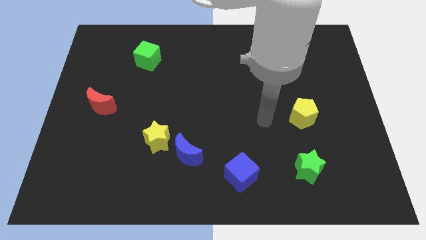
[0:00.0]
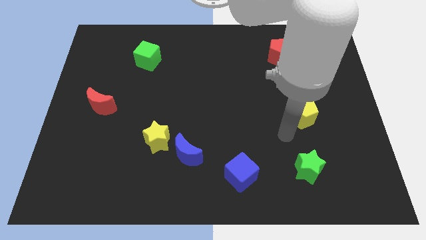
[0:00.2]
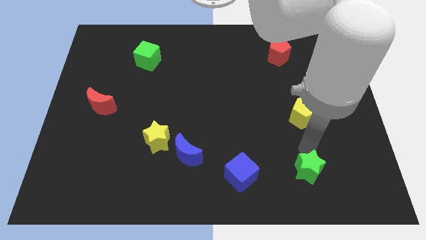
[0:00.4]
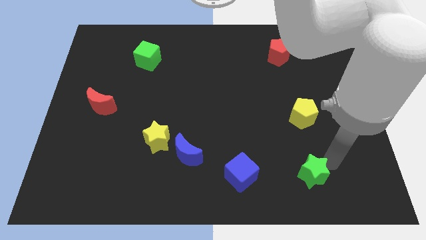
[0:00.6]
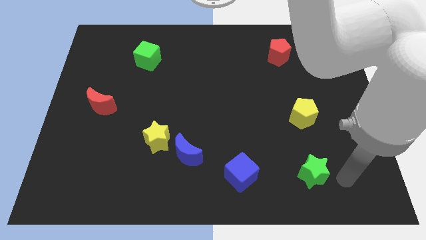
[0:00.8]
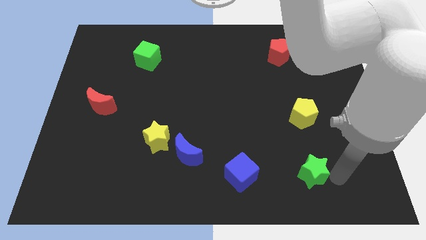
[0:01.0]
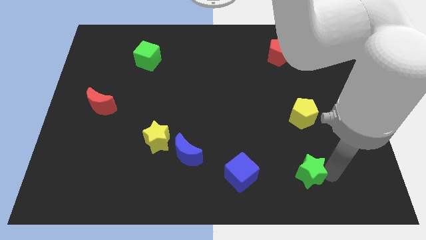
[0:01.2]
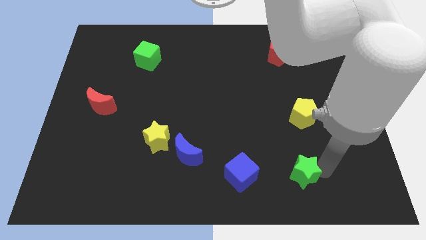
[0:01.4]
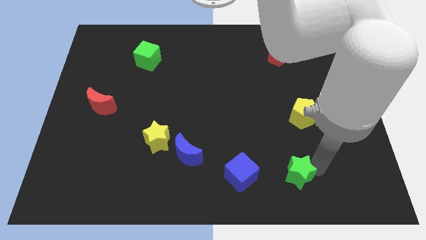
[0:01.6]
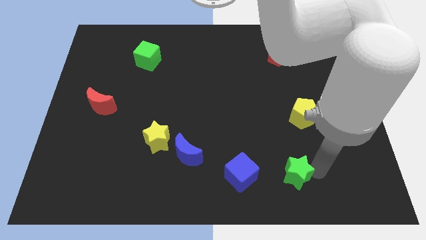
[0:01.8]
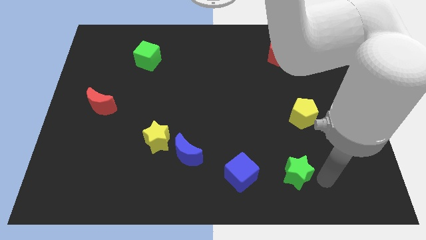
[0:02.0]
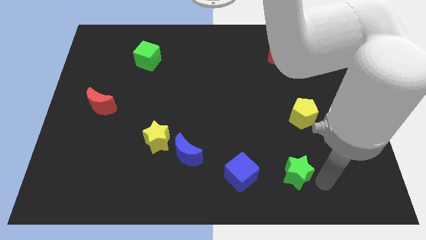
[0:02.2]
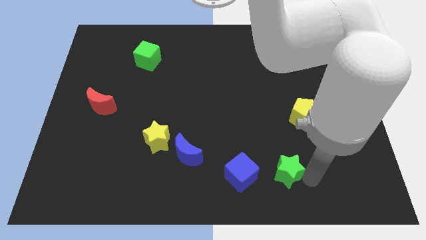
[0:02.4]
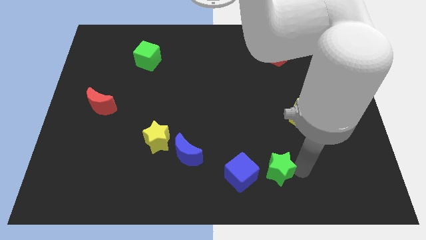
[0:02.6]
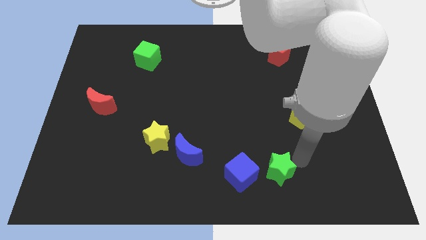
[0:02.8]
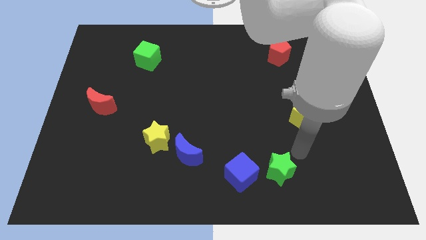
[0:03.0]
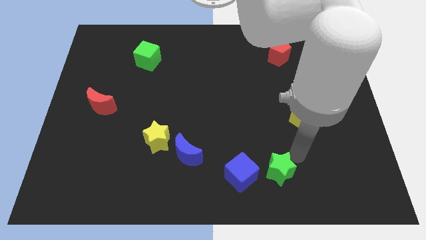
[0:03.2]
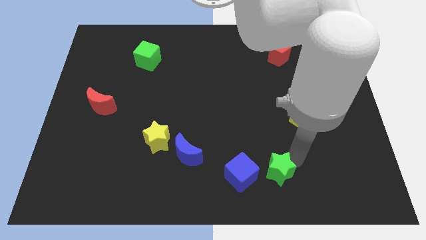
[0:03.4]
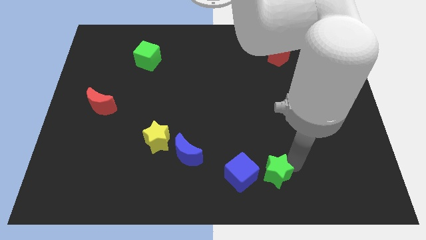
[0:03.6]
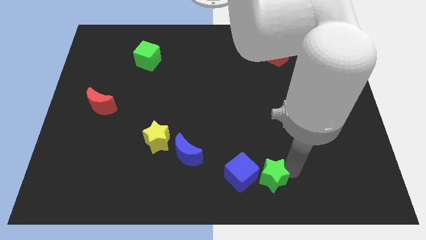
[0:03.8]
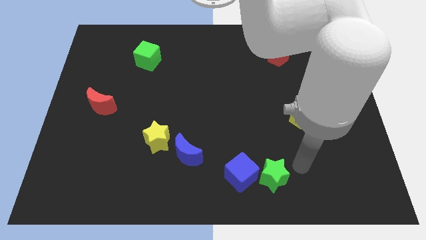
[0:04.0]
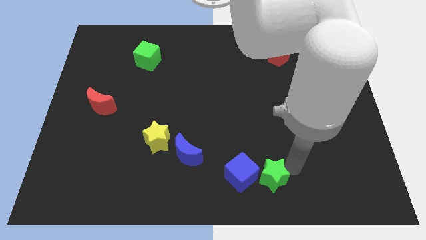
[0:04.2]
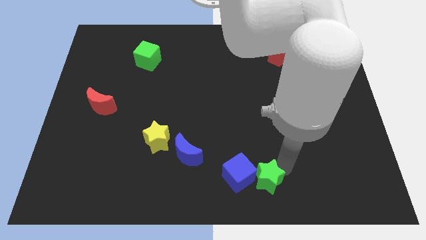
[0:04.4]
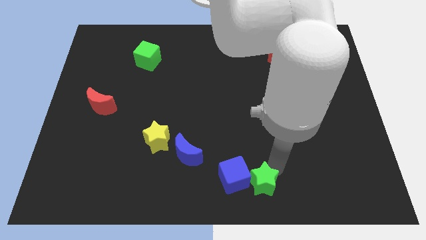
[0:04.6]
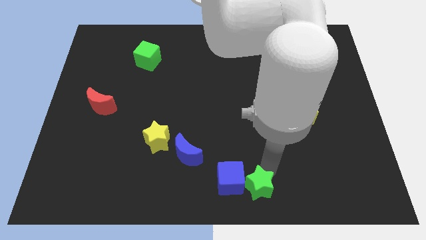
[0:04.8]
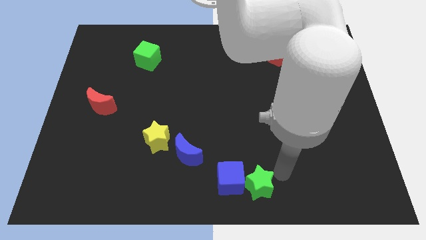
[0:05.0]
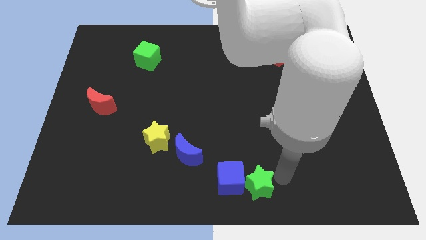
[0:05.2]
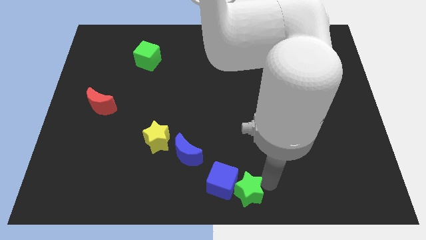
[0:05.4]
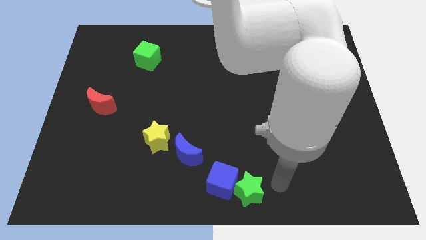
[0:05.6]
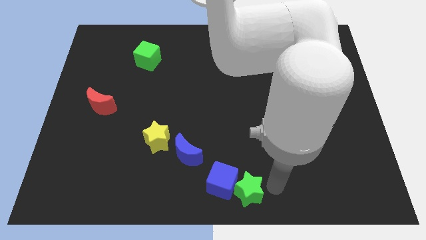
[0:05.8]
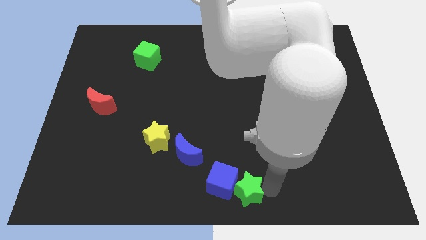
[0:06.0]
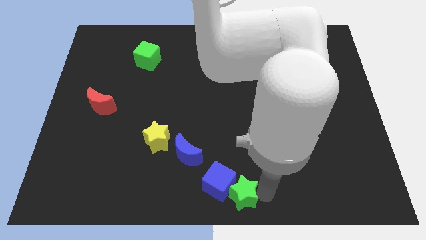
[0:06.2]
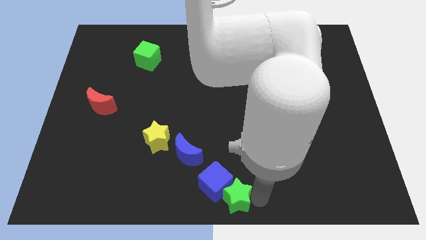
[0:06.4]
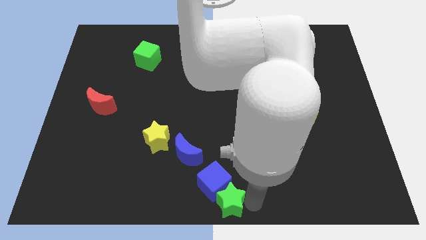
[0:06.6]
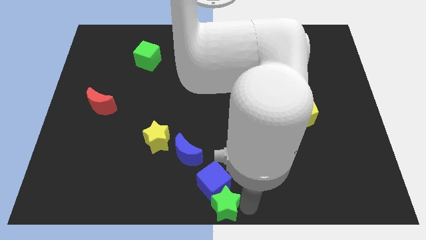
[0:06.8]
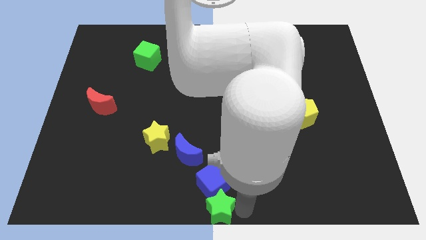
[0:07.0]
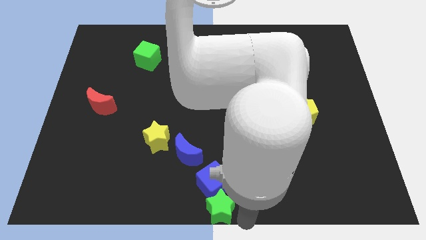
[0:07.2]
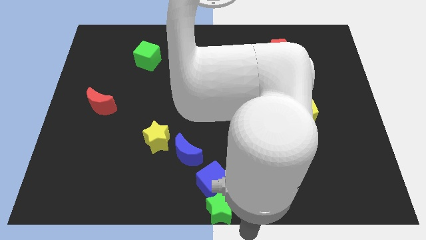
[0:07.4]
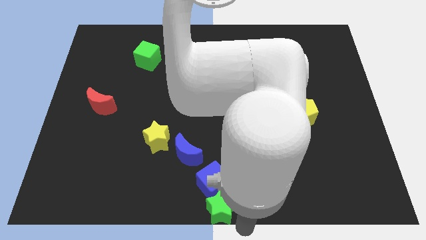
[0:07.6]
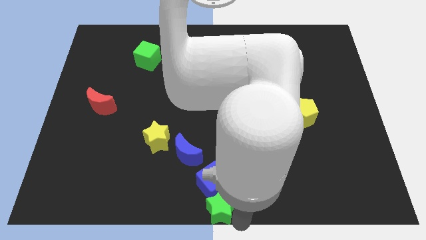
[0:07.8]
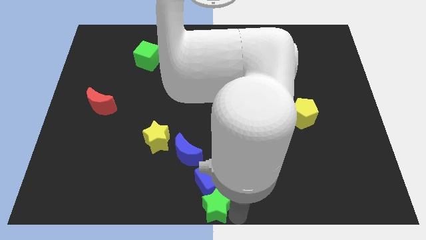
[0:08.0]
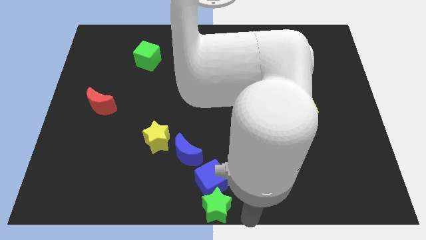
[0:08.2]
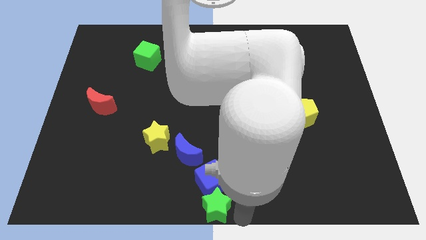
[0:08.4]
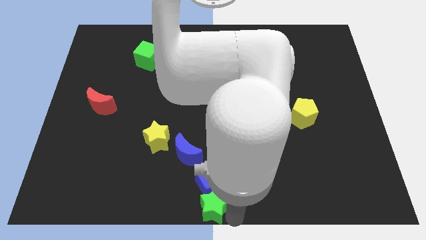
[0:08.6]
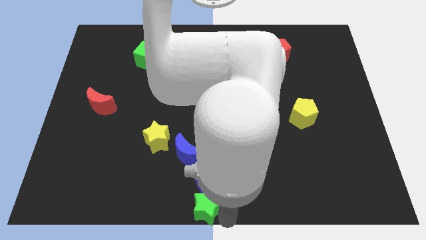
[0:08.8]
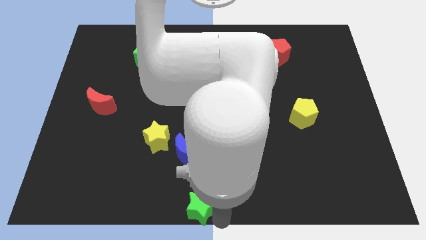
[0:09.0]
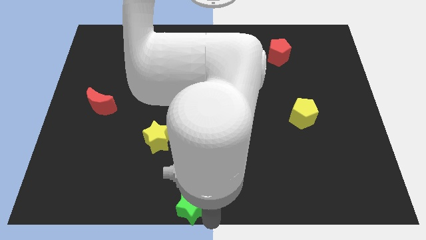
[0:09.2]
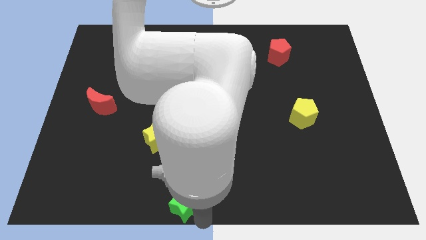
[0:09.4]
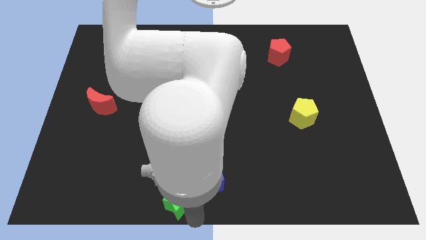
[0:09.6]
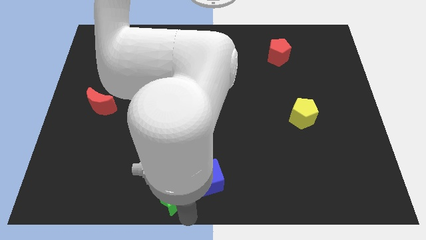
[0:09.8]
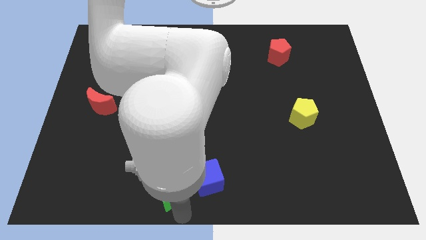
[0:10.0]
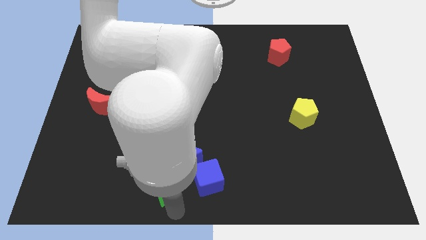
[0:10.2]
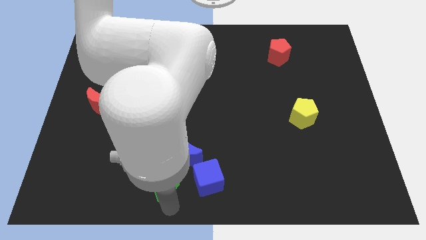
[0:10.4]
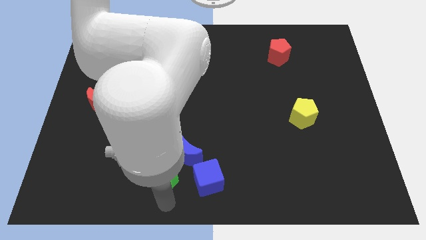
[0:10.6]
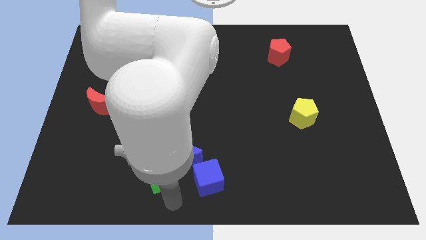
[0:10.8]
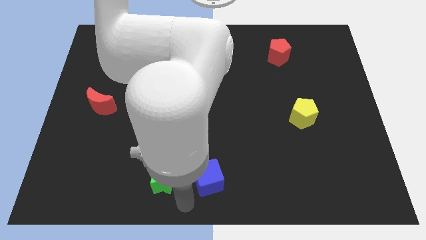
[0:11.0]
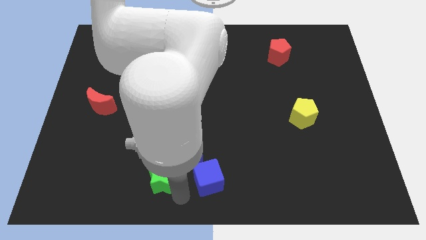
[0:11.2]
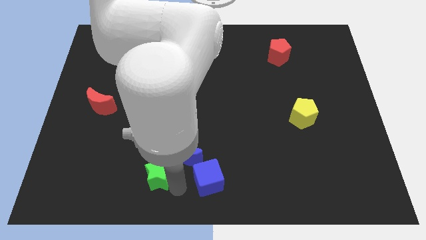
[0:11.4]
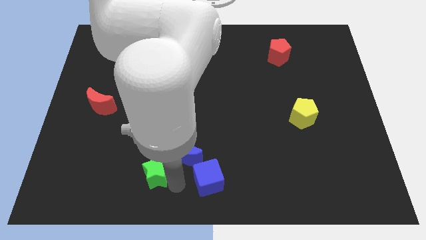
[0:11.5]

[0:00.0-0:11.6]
put the green star just left of the blue moon

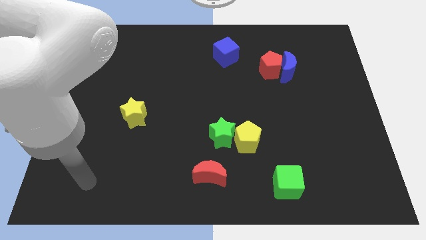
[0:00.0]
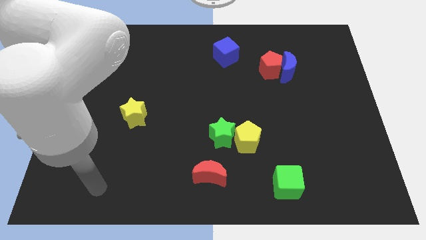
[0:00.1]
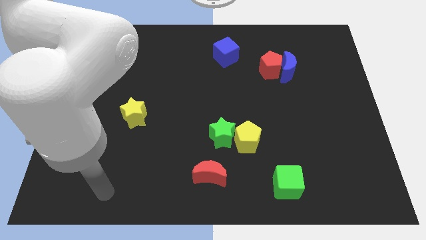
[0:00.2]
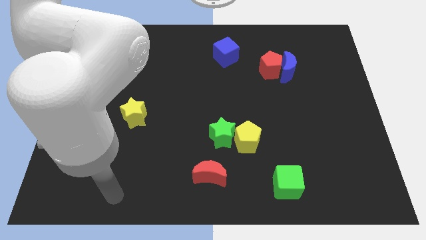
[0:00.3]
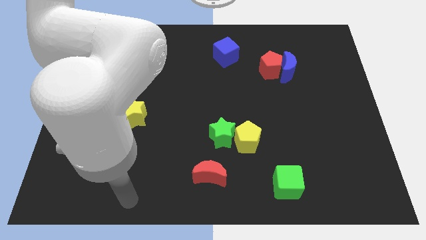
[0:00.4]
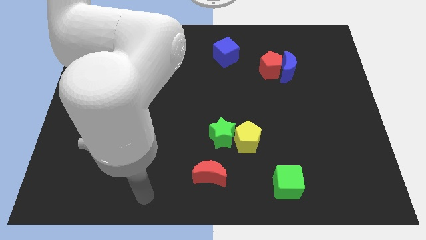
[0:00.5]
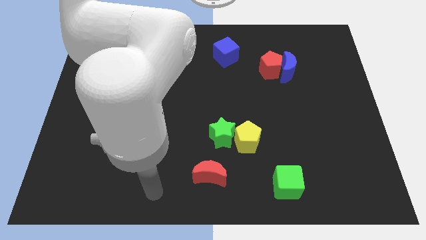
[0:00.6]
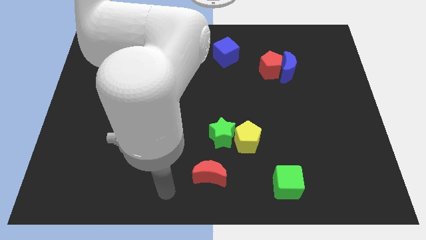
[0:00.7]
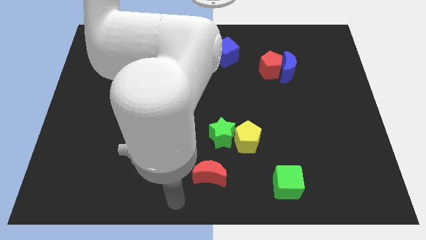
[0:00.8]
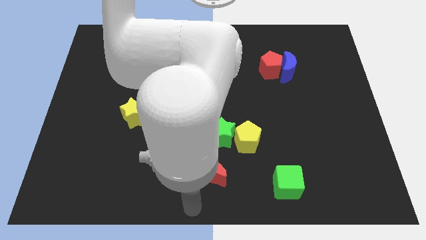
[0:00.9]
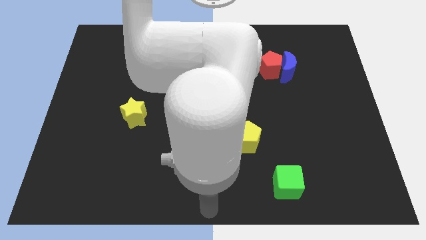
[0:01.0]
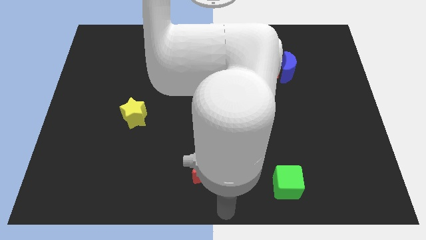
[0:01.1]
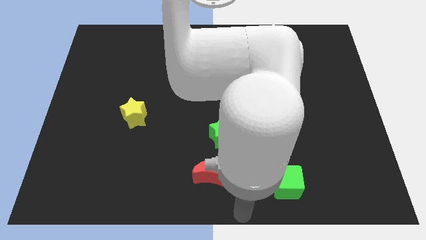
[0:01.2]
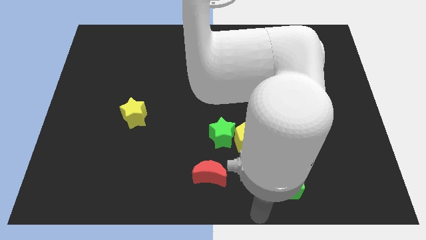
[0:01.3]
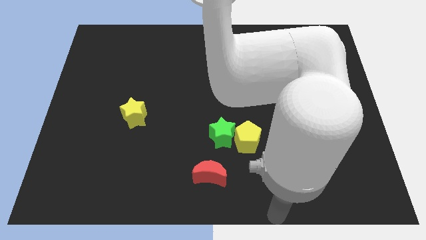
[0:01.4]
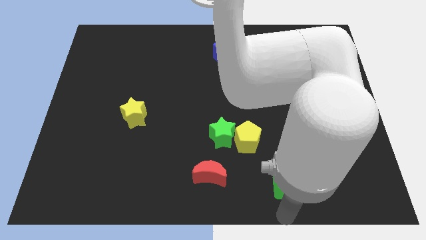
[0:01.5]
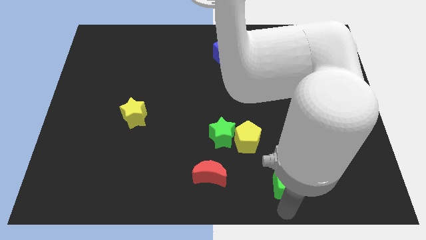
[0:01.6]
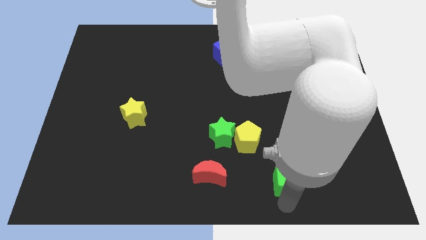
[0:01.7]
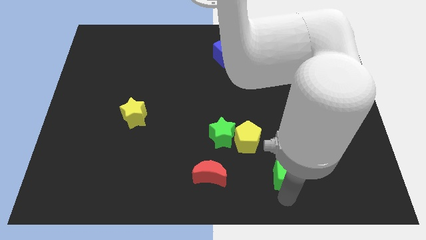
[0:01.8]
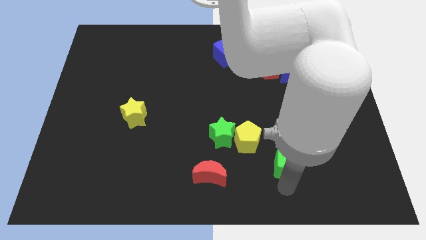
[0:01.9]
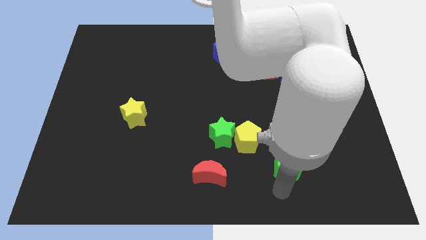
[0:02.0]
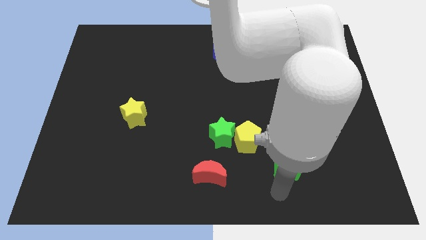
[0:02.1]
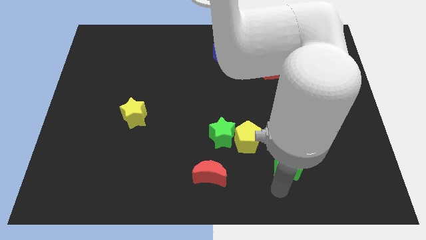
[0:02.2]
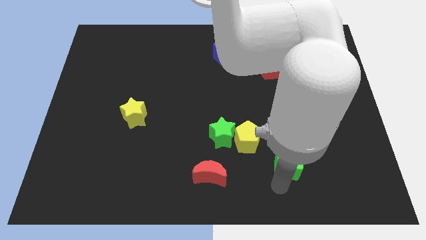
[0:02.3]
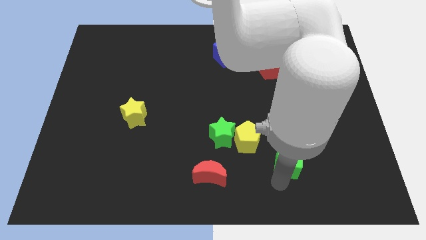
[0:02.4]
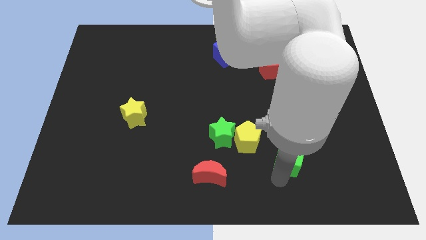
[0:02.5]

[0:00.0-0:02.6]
push the green cube right of the yellow pentagon
